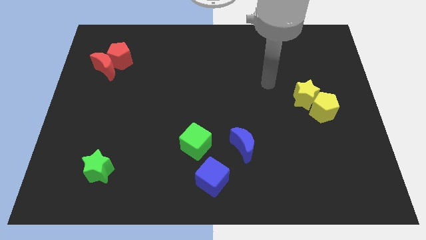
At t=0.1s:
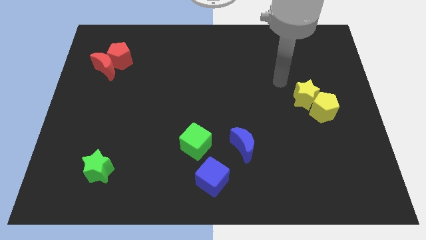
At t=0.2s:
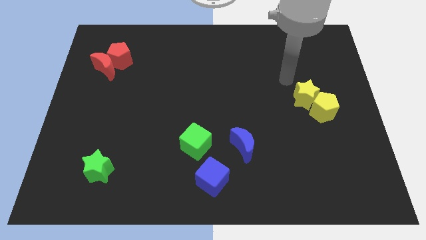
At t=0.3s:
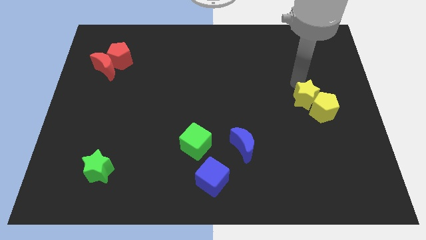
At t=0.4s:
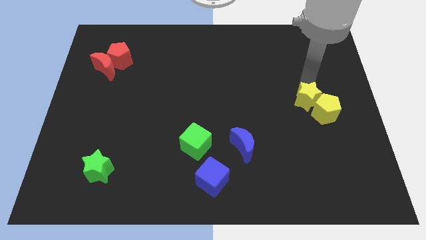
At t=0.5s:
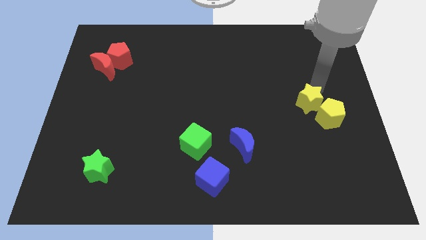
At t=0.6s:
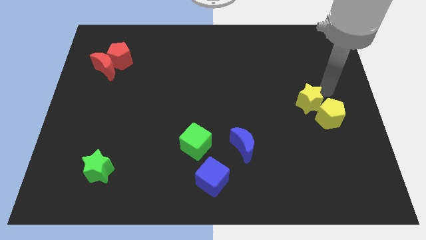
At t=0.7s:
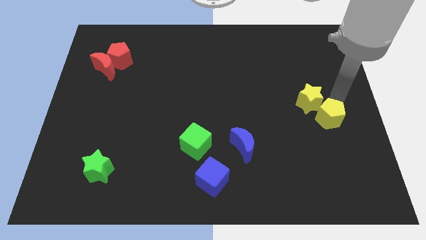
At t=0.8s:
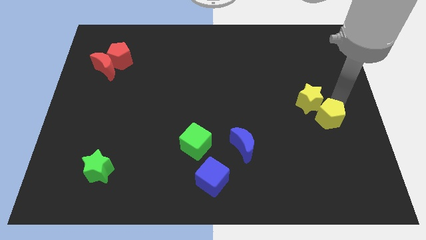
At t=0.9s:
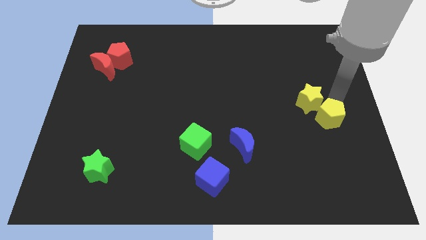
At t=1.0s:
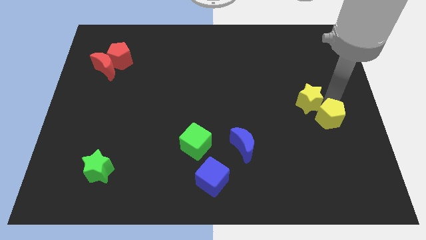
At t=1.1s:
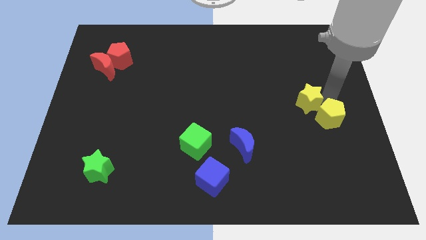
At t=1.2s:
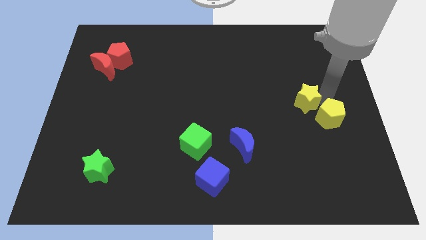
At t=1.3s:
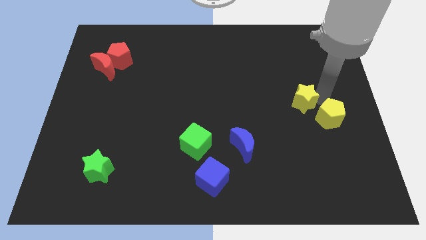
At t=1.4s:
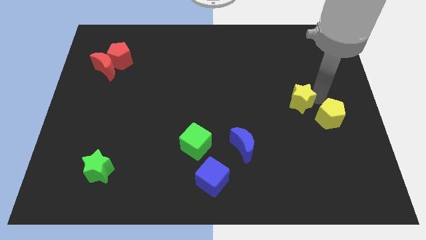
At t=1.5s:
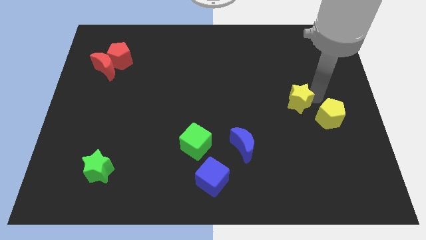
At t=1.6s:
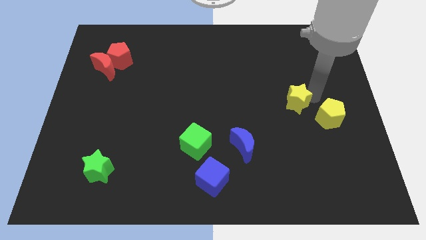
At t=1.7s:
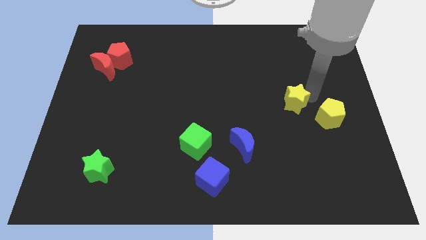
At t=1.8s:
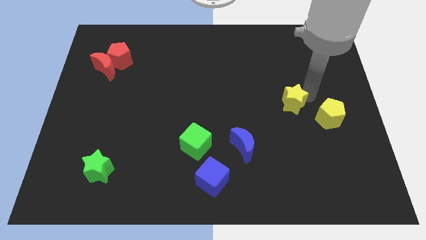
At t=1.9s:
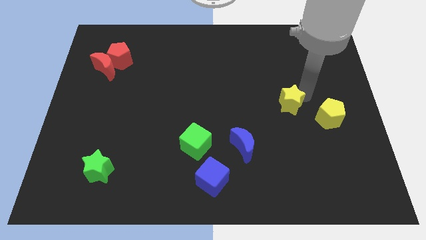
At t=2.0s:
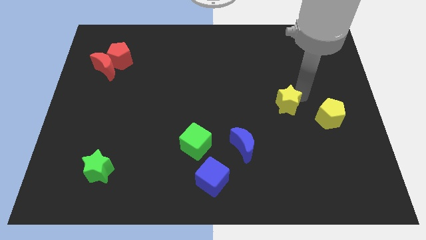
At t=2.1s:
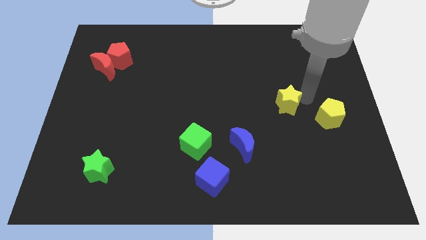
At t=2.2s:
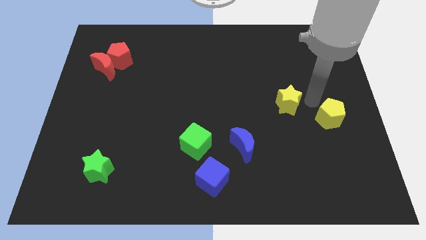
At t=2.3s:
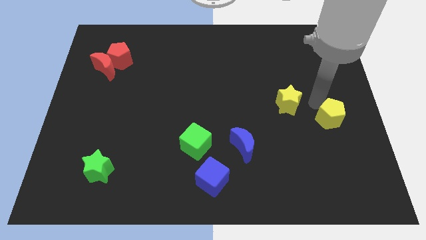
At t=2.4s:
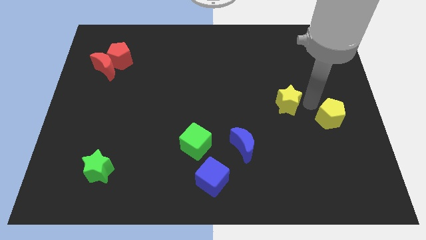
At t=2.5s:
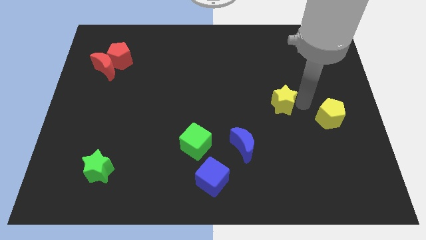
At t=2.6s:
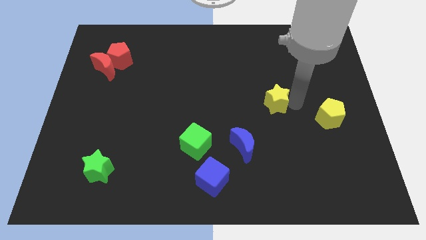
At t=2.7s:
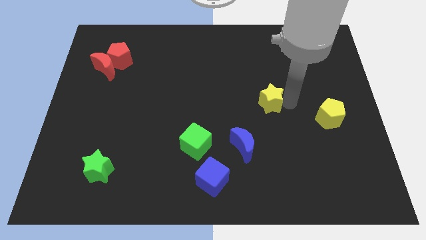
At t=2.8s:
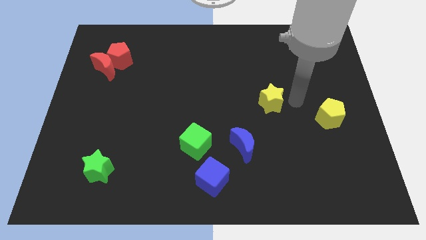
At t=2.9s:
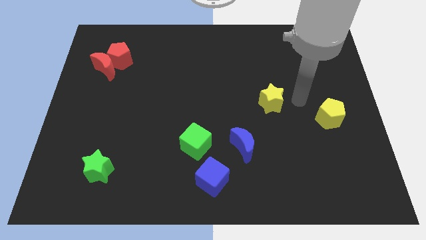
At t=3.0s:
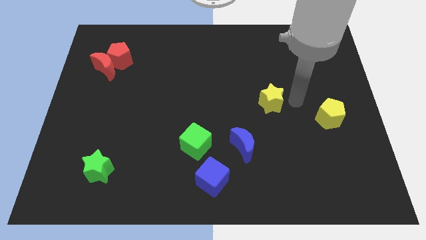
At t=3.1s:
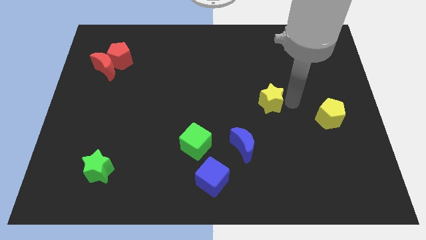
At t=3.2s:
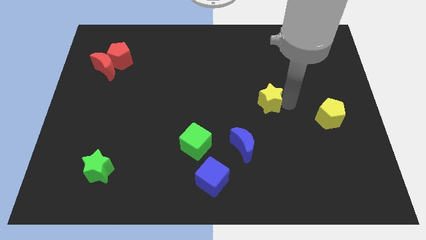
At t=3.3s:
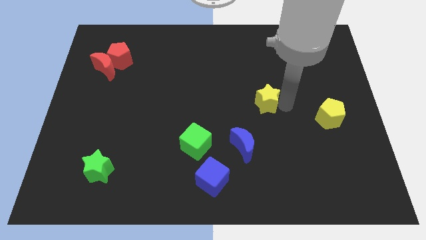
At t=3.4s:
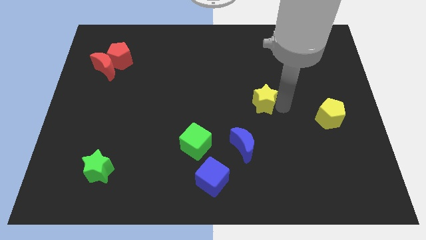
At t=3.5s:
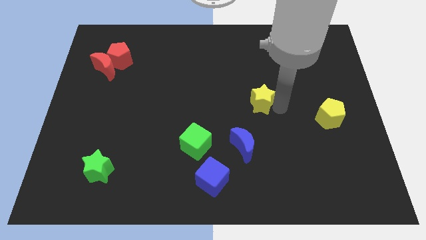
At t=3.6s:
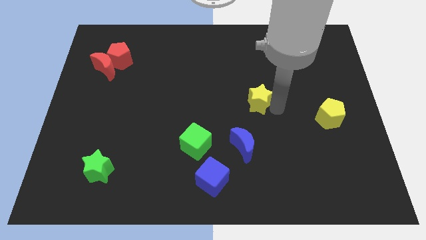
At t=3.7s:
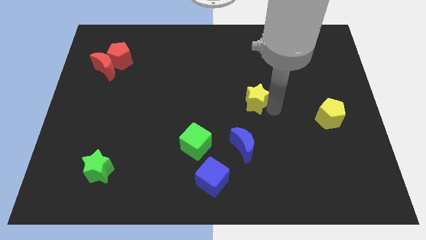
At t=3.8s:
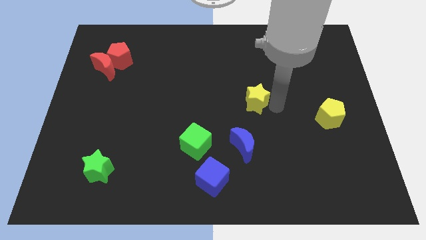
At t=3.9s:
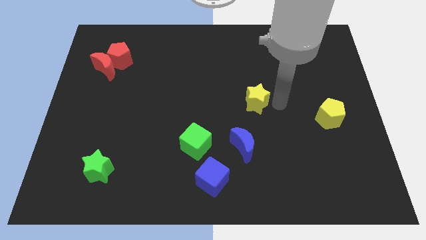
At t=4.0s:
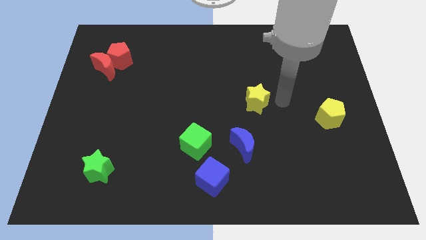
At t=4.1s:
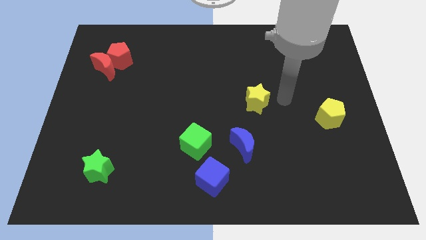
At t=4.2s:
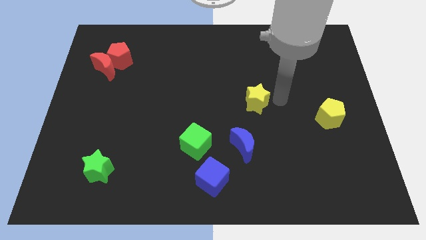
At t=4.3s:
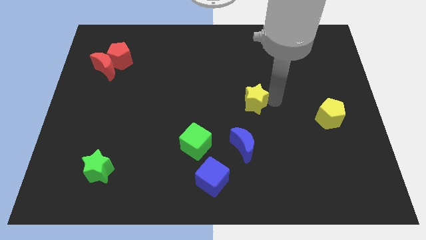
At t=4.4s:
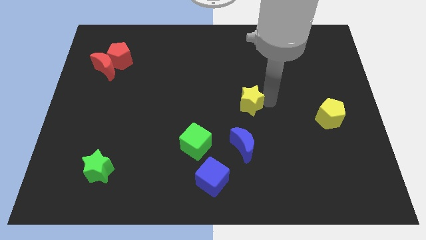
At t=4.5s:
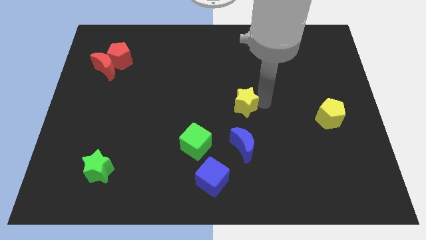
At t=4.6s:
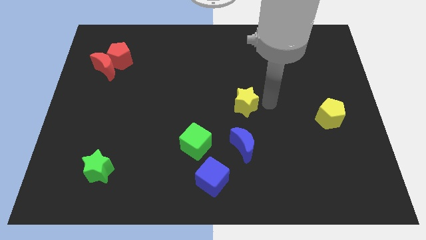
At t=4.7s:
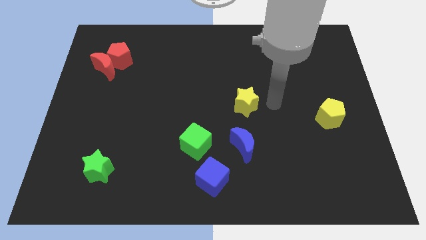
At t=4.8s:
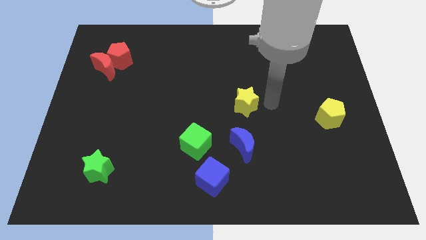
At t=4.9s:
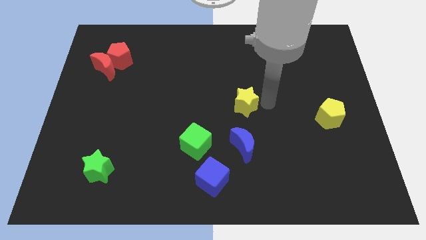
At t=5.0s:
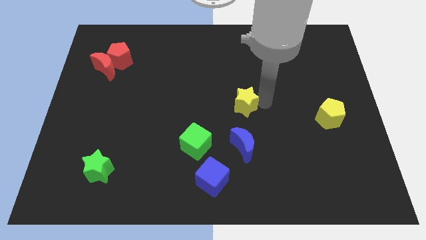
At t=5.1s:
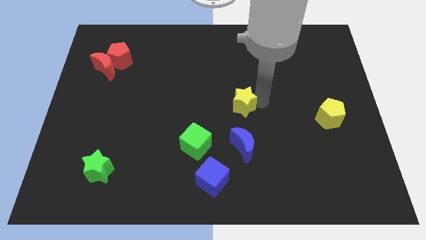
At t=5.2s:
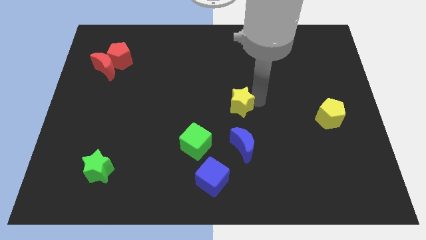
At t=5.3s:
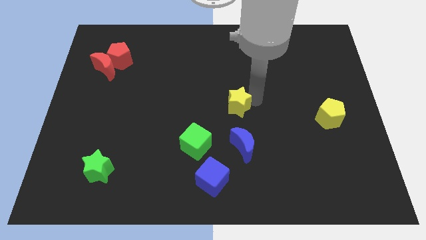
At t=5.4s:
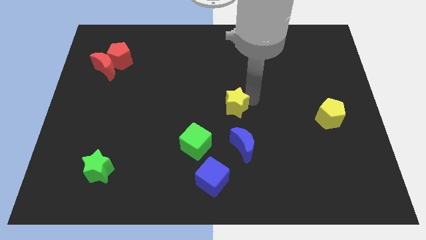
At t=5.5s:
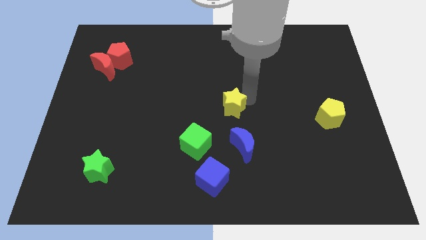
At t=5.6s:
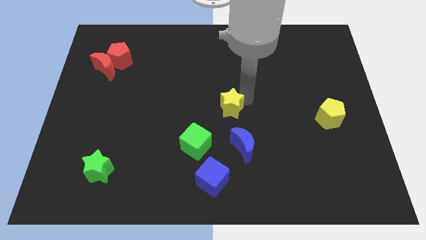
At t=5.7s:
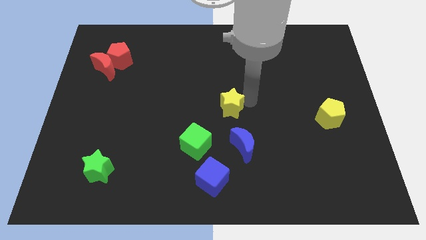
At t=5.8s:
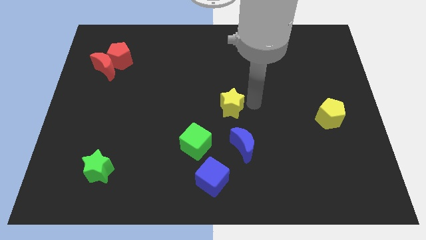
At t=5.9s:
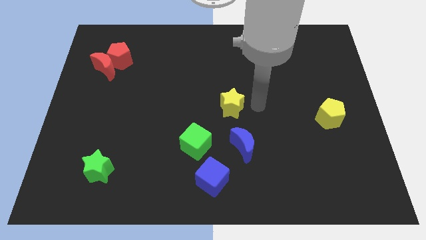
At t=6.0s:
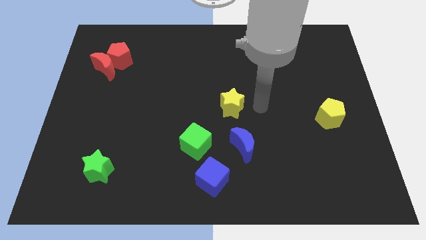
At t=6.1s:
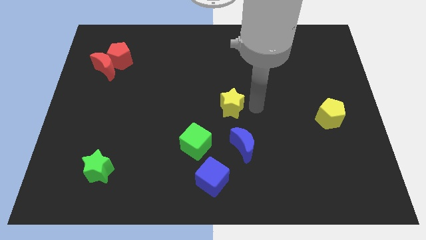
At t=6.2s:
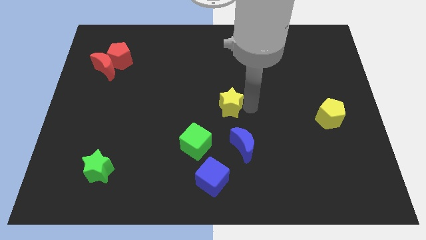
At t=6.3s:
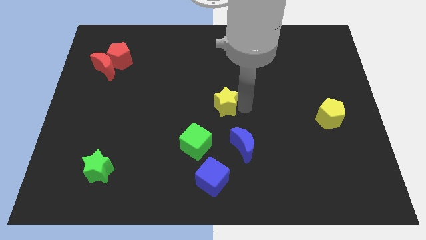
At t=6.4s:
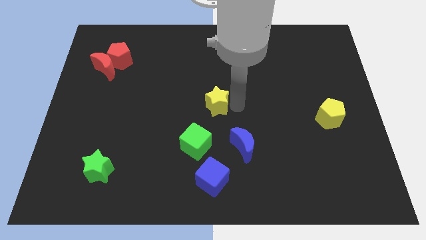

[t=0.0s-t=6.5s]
move the yellow star above the green cube

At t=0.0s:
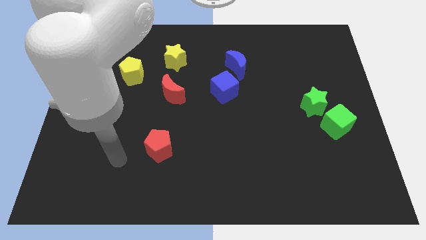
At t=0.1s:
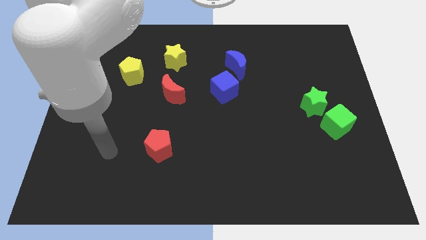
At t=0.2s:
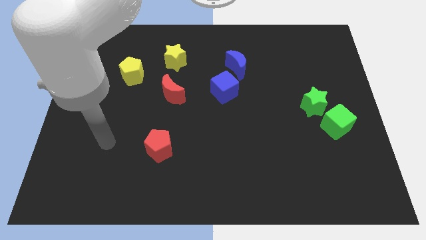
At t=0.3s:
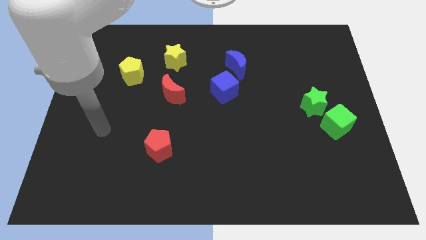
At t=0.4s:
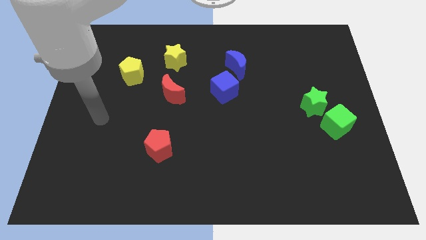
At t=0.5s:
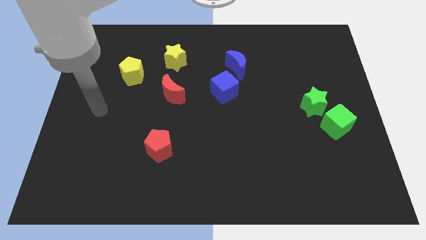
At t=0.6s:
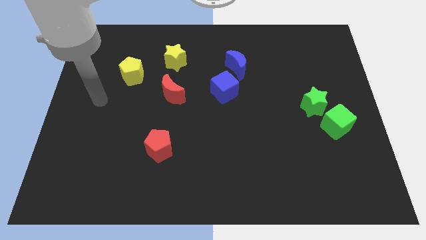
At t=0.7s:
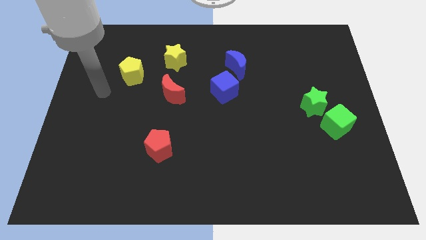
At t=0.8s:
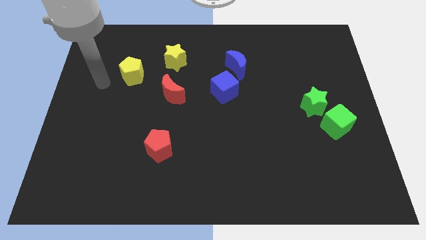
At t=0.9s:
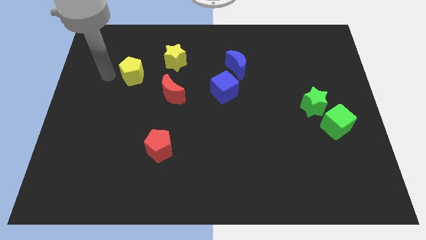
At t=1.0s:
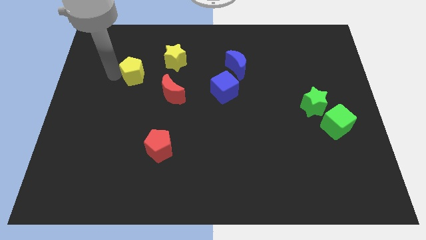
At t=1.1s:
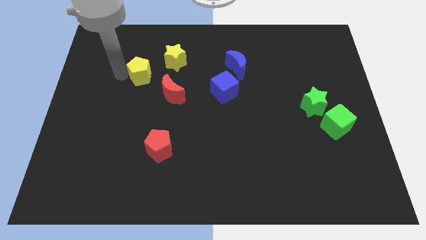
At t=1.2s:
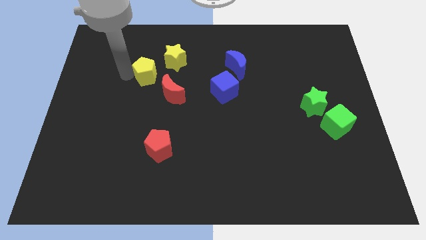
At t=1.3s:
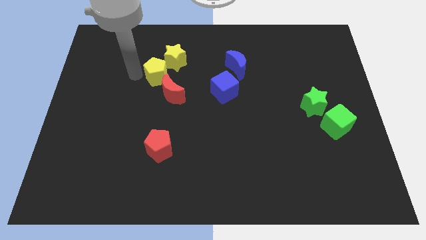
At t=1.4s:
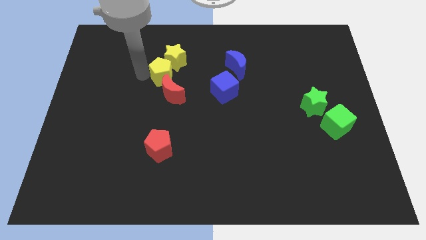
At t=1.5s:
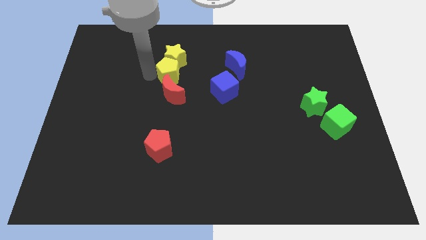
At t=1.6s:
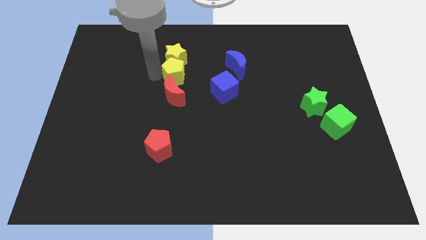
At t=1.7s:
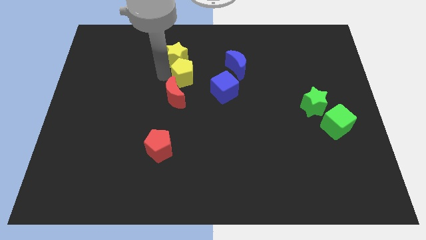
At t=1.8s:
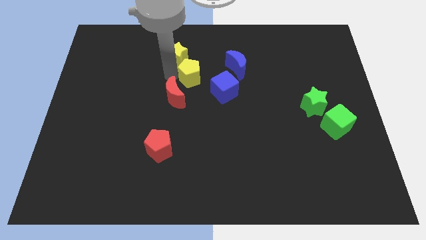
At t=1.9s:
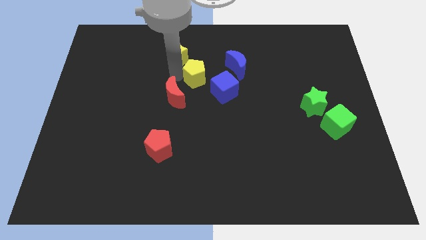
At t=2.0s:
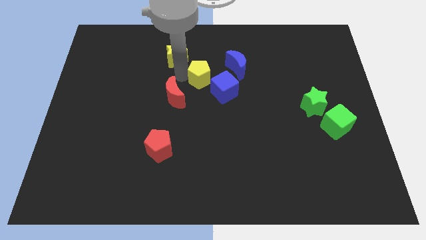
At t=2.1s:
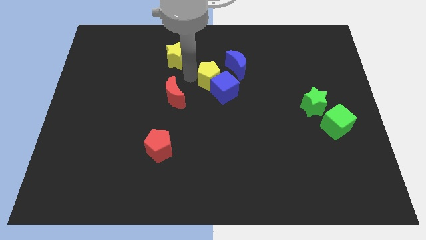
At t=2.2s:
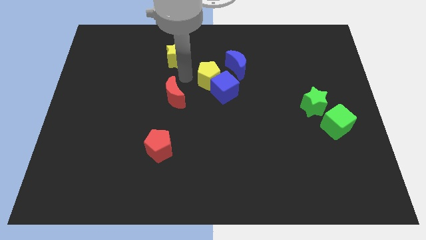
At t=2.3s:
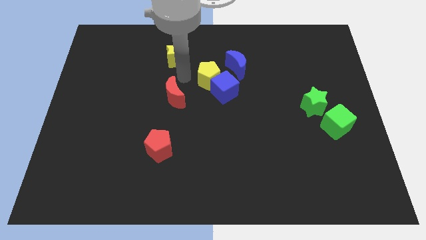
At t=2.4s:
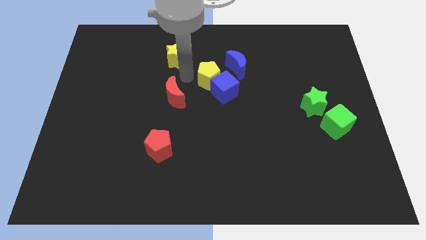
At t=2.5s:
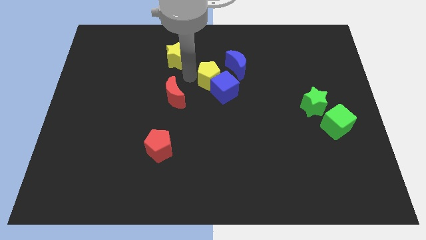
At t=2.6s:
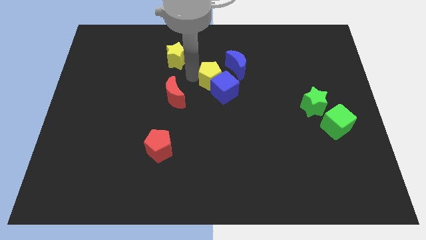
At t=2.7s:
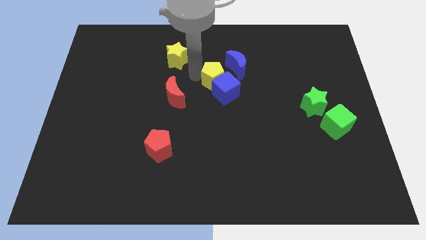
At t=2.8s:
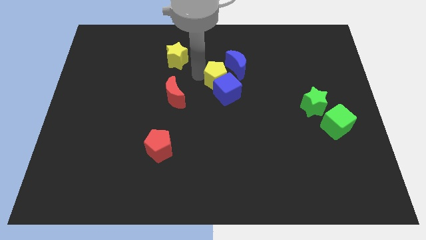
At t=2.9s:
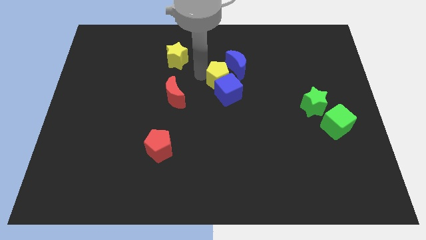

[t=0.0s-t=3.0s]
move the yellow pentagon to the bottom side of the blue moon
